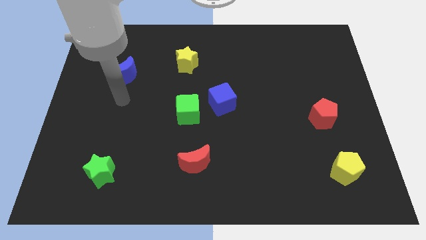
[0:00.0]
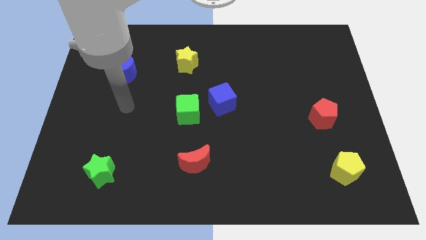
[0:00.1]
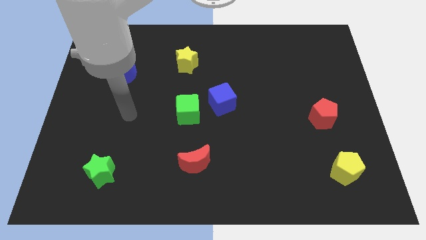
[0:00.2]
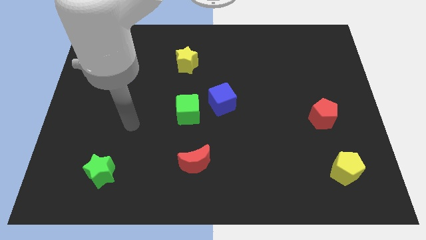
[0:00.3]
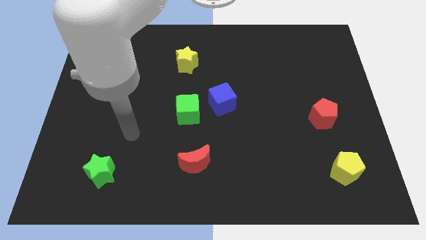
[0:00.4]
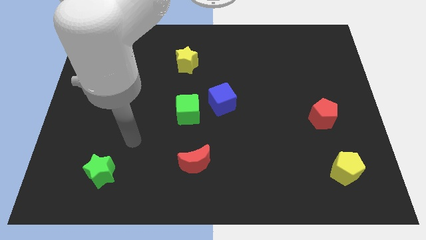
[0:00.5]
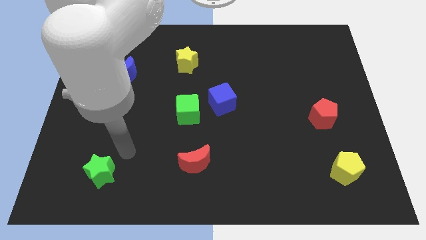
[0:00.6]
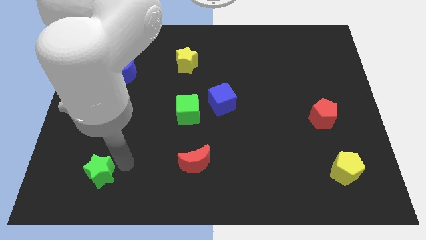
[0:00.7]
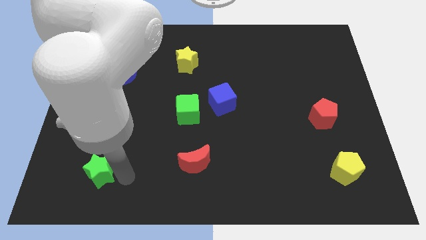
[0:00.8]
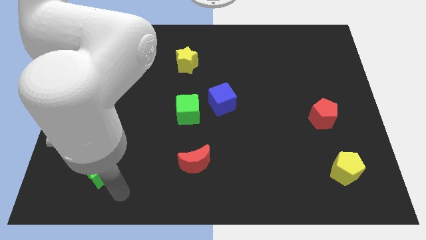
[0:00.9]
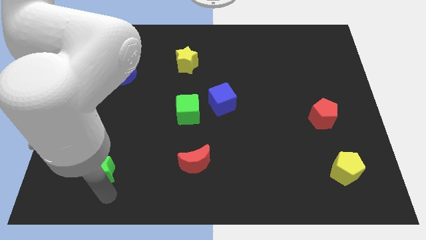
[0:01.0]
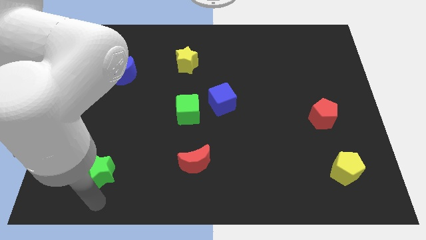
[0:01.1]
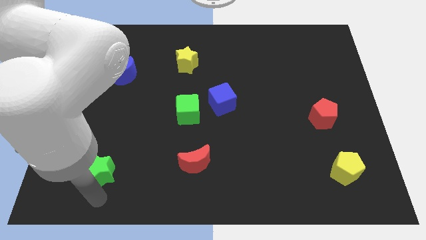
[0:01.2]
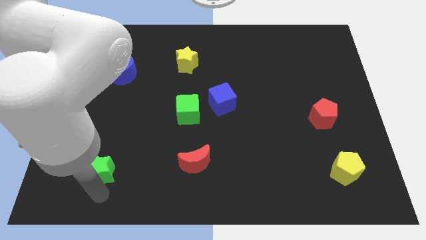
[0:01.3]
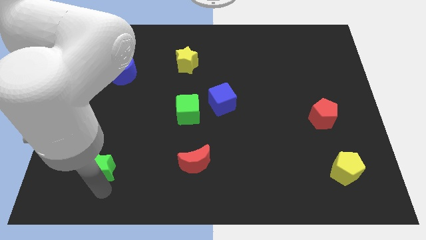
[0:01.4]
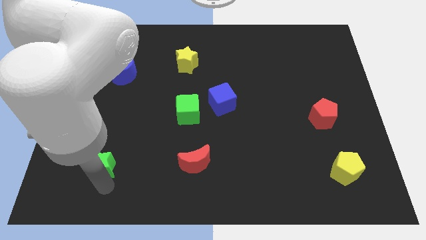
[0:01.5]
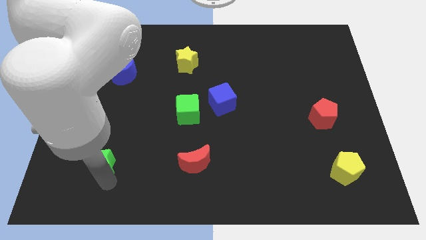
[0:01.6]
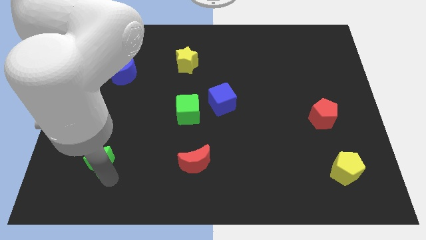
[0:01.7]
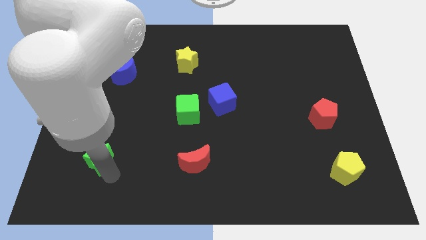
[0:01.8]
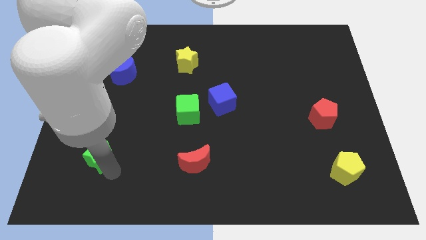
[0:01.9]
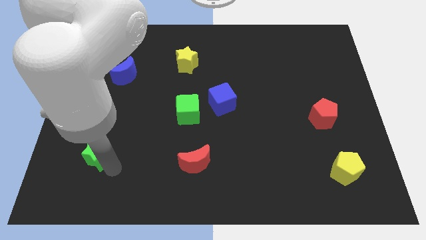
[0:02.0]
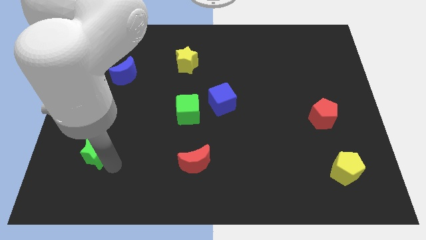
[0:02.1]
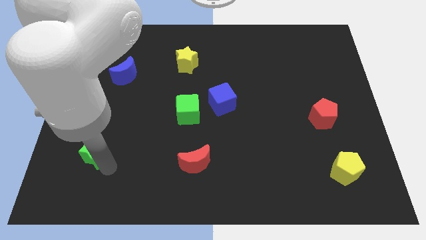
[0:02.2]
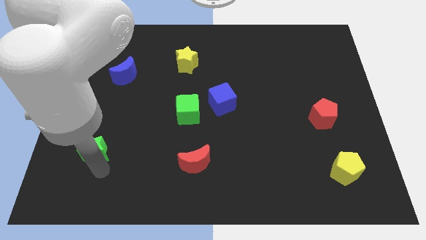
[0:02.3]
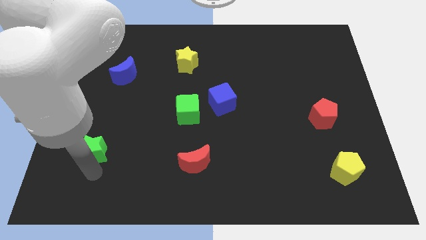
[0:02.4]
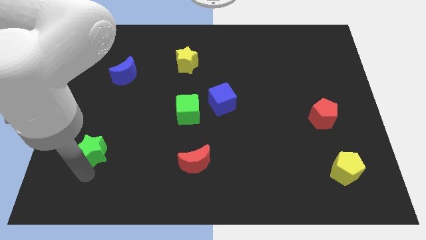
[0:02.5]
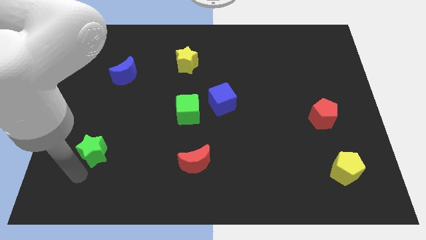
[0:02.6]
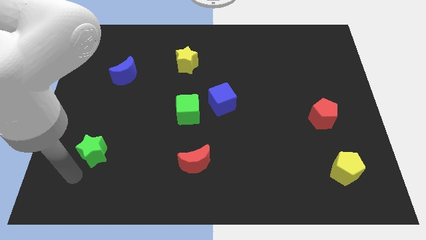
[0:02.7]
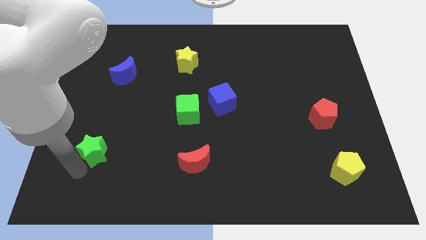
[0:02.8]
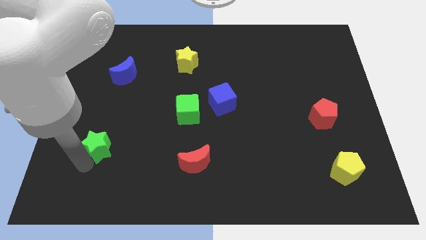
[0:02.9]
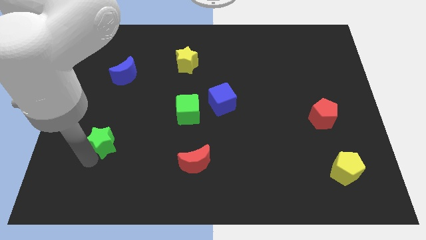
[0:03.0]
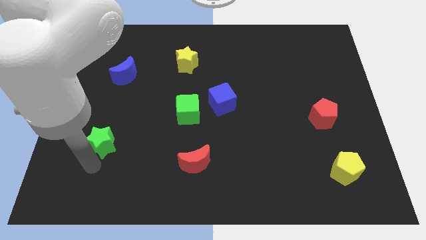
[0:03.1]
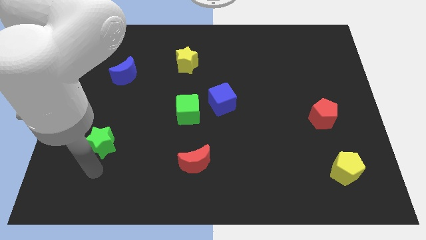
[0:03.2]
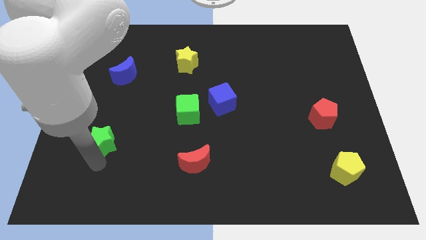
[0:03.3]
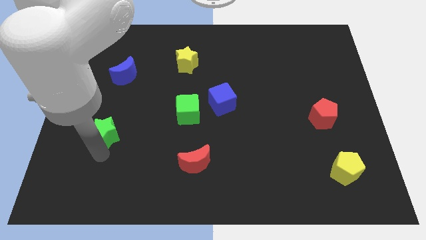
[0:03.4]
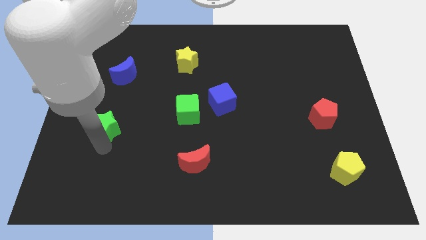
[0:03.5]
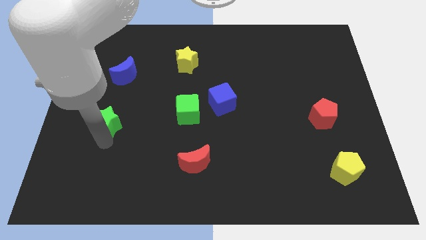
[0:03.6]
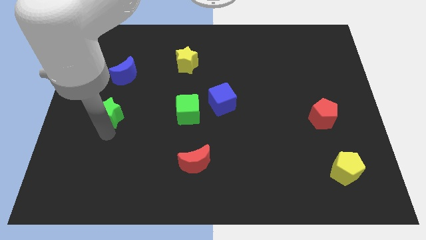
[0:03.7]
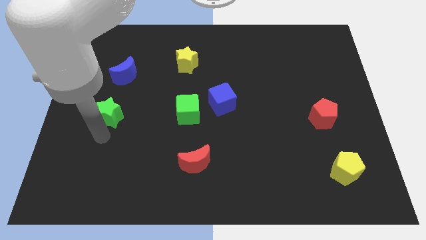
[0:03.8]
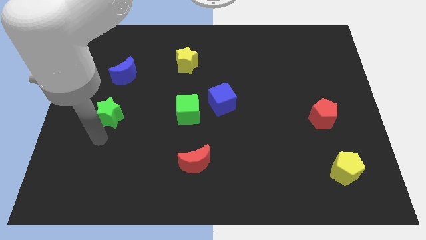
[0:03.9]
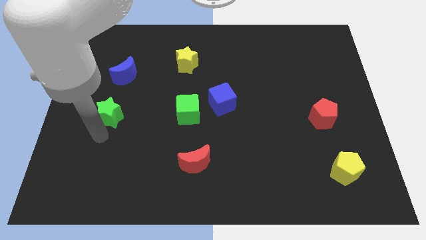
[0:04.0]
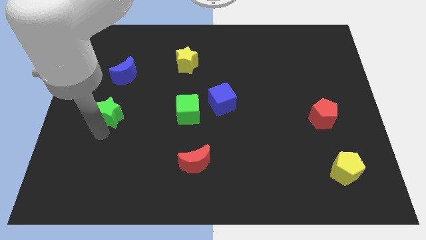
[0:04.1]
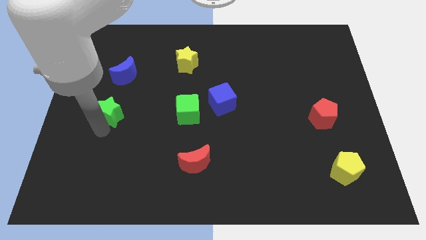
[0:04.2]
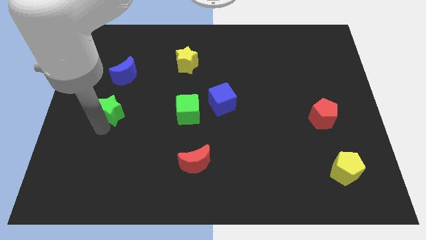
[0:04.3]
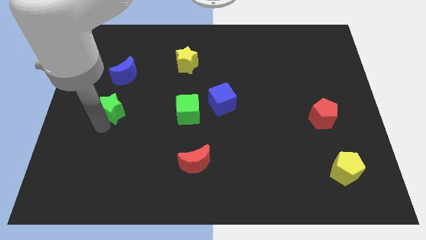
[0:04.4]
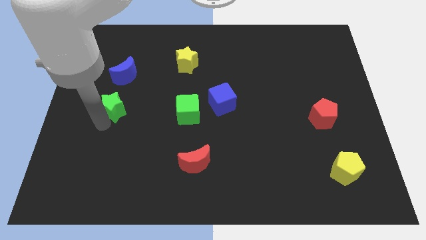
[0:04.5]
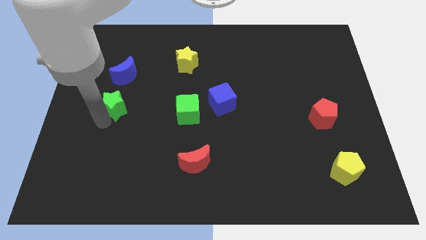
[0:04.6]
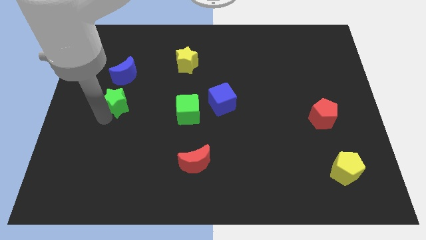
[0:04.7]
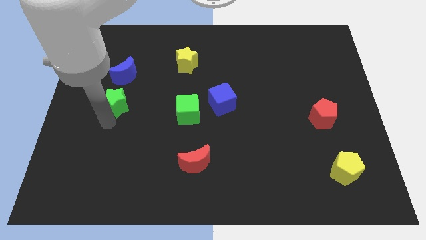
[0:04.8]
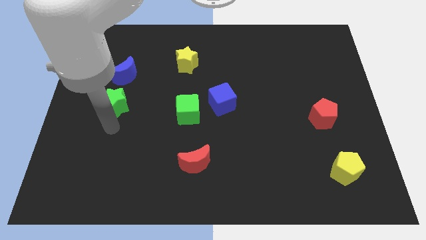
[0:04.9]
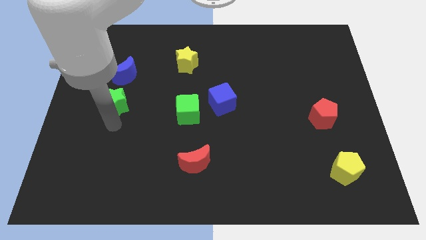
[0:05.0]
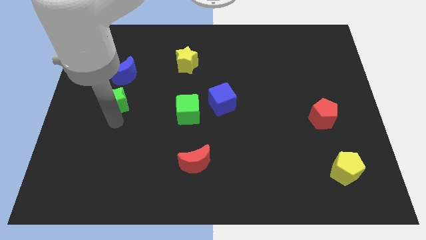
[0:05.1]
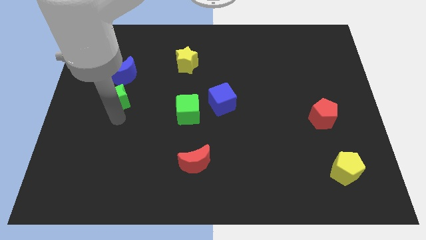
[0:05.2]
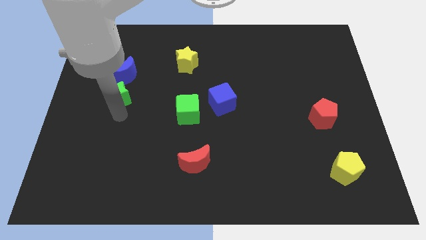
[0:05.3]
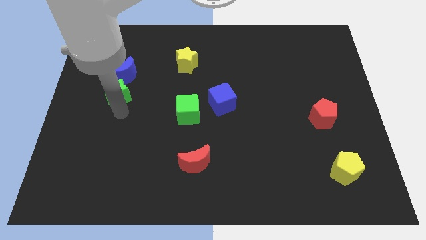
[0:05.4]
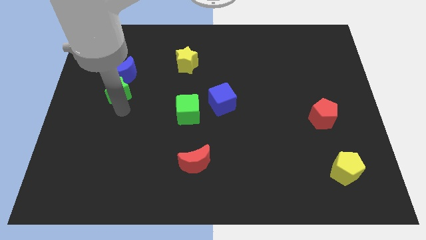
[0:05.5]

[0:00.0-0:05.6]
slide the green star to the blue moon

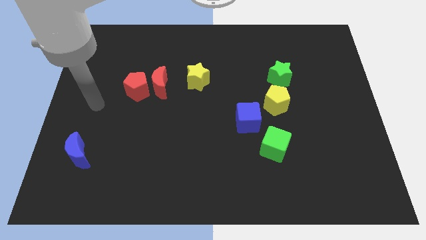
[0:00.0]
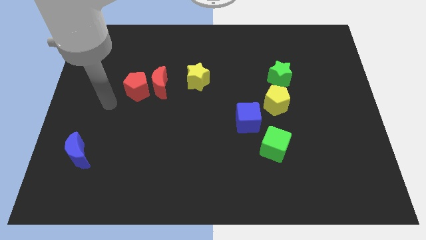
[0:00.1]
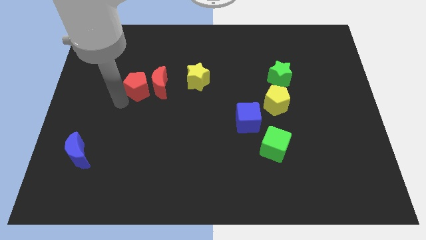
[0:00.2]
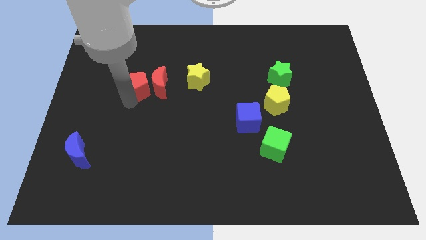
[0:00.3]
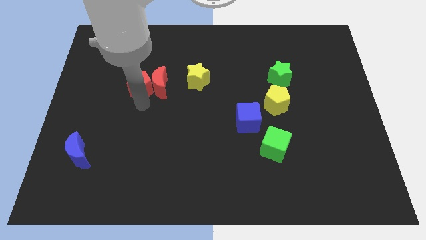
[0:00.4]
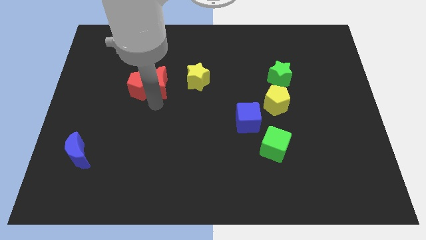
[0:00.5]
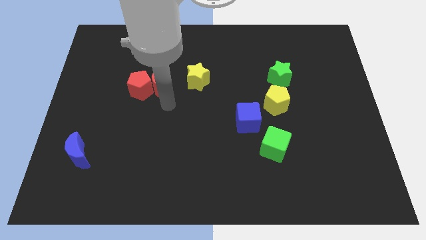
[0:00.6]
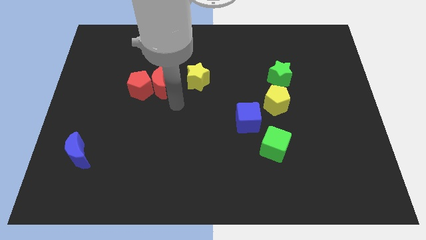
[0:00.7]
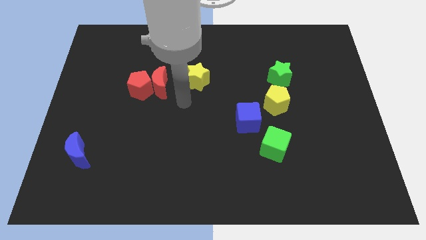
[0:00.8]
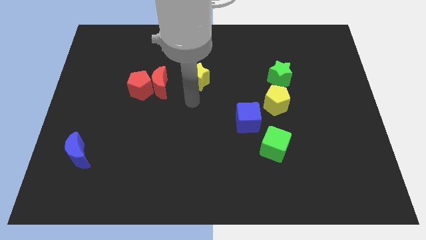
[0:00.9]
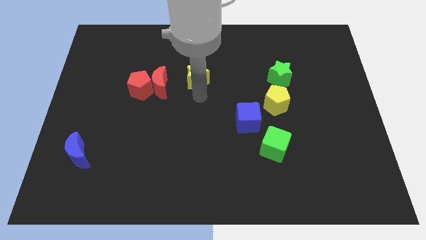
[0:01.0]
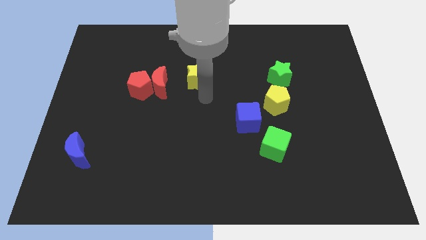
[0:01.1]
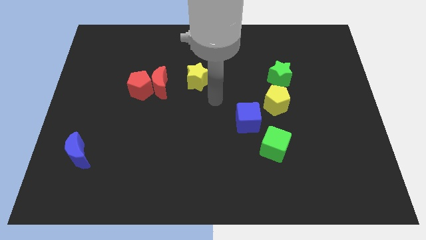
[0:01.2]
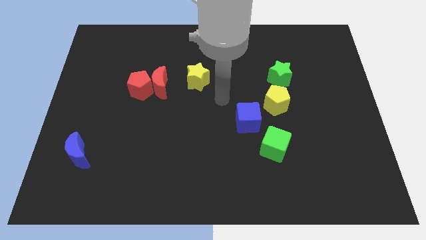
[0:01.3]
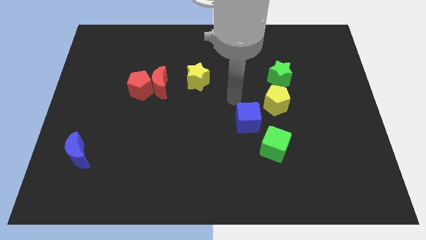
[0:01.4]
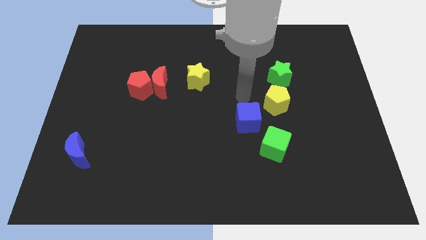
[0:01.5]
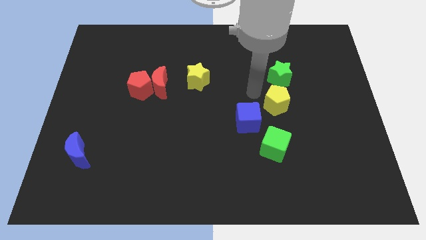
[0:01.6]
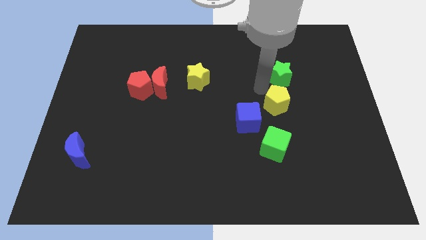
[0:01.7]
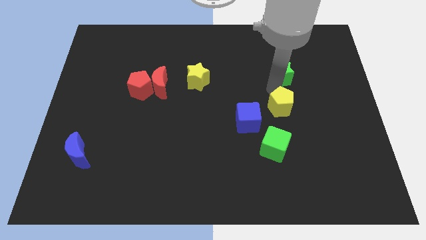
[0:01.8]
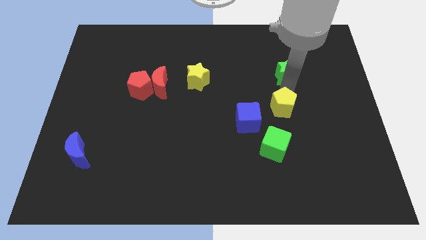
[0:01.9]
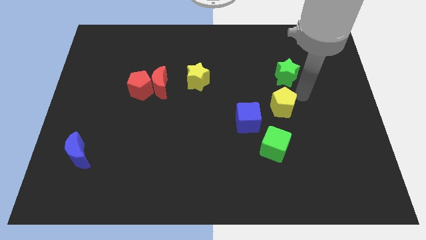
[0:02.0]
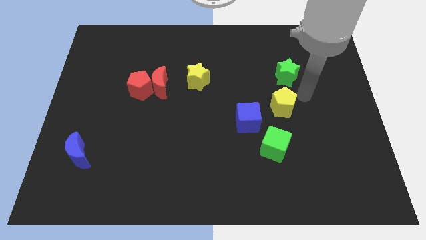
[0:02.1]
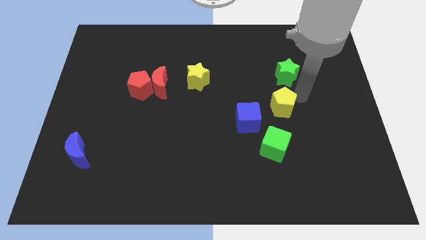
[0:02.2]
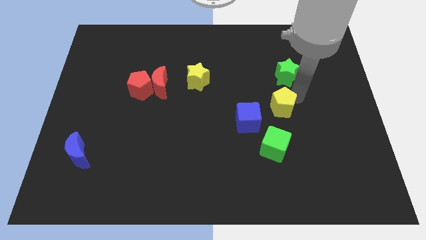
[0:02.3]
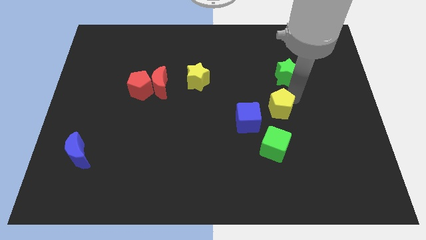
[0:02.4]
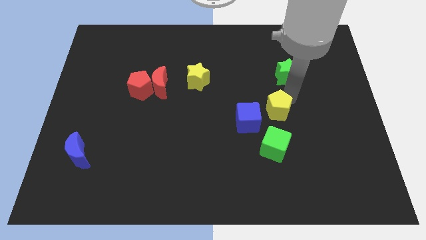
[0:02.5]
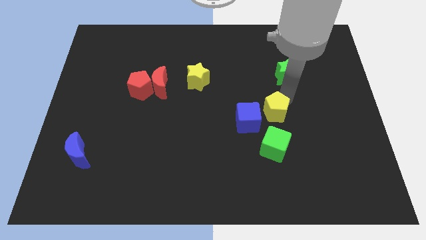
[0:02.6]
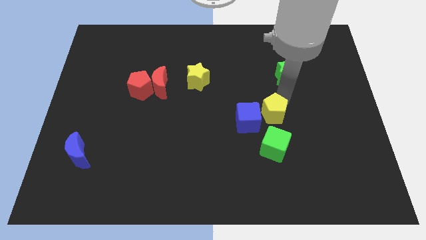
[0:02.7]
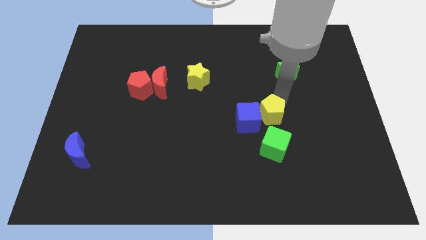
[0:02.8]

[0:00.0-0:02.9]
put the yellow pentagon close to the blue cube
